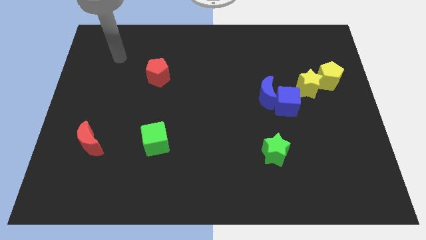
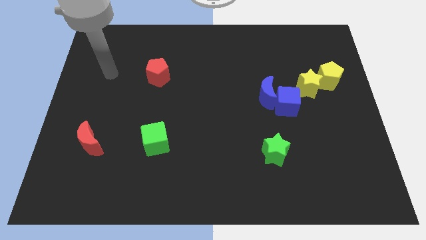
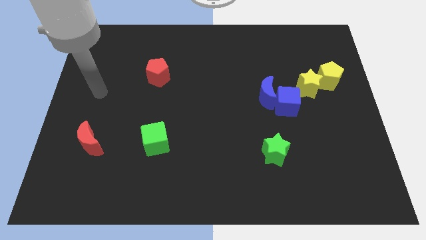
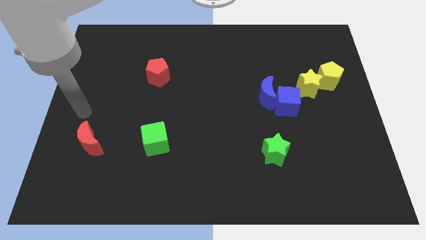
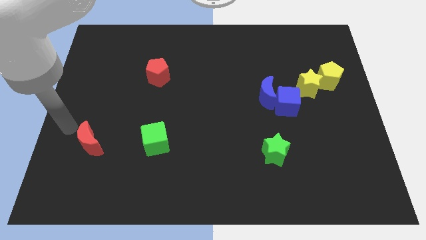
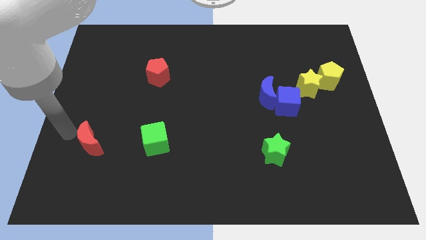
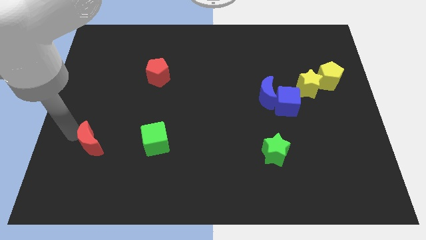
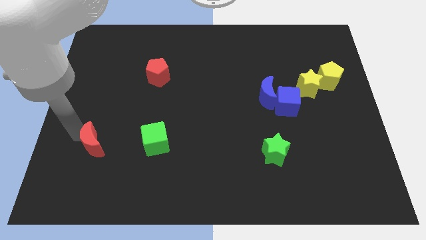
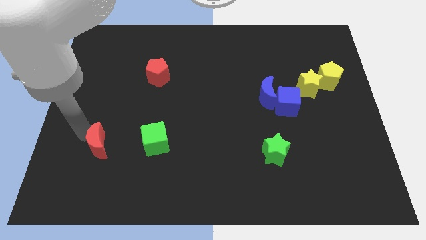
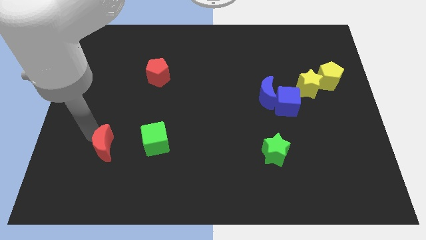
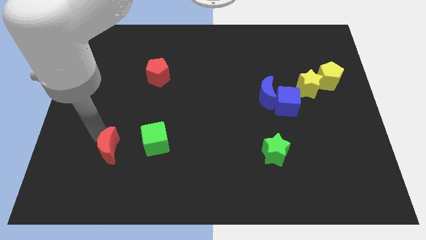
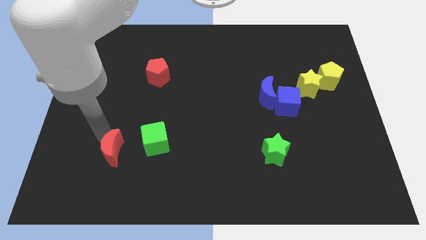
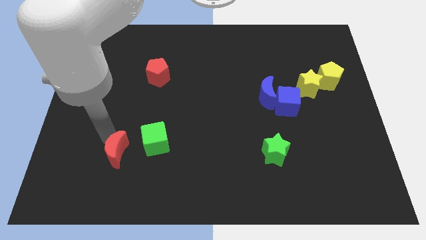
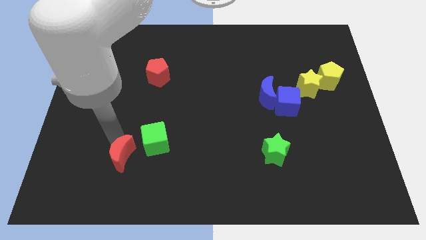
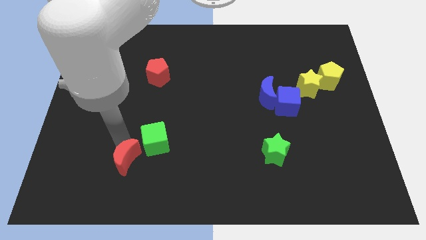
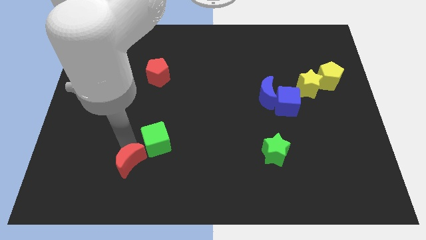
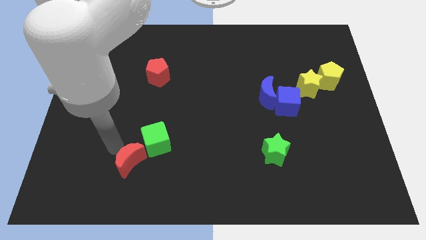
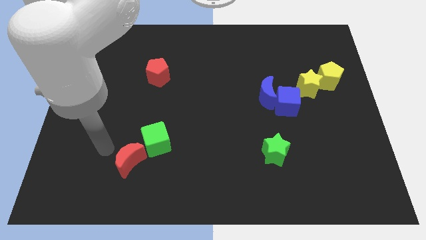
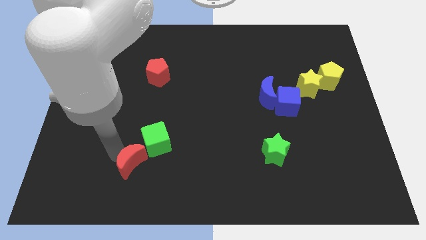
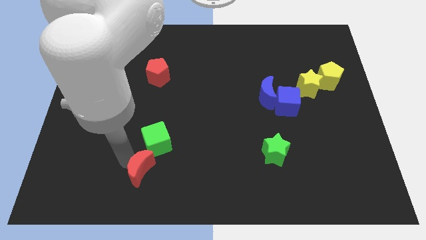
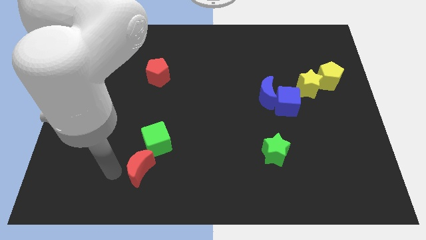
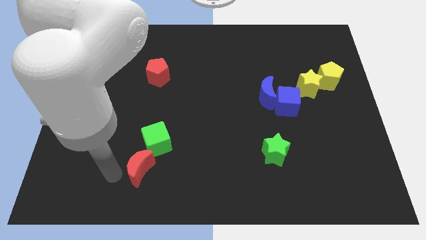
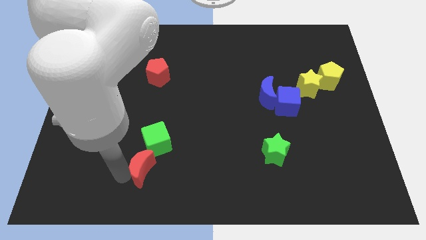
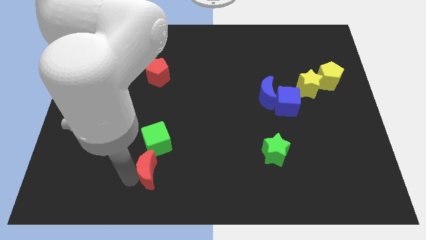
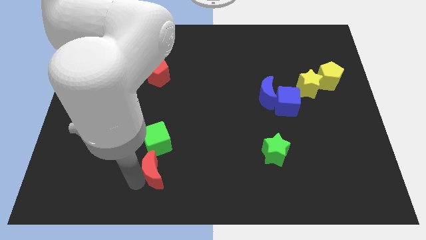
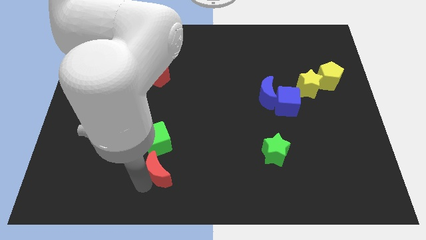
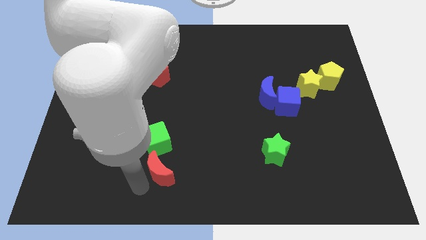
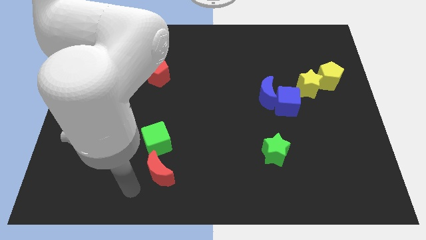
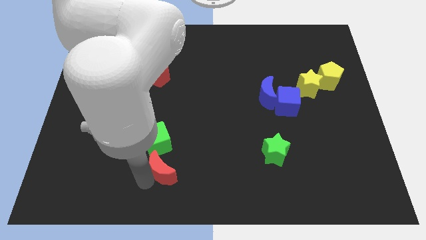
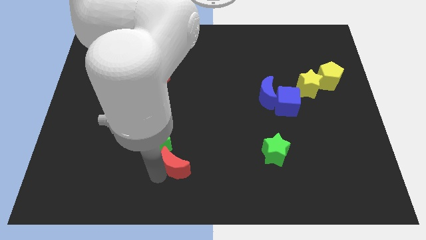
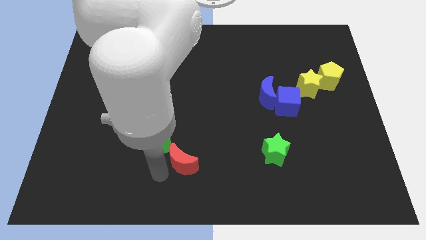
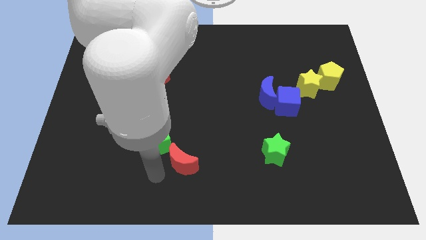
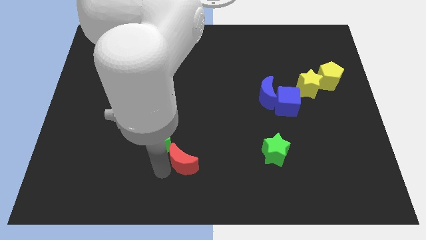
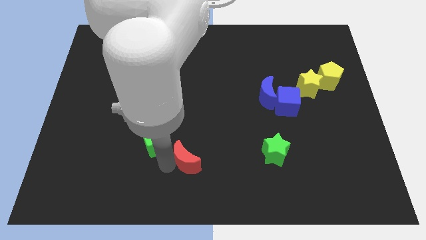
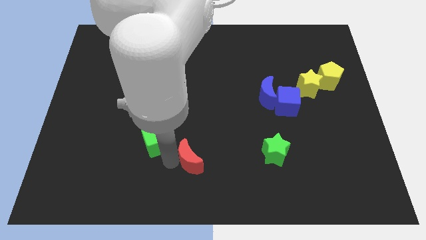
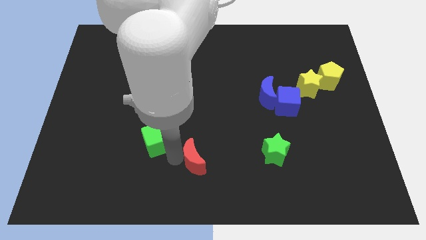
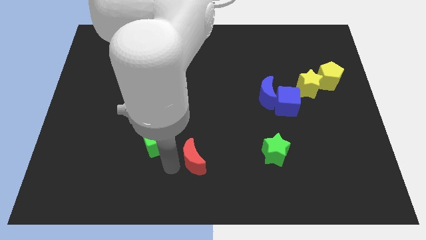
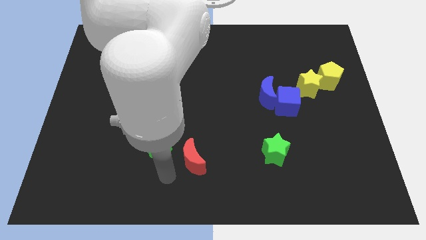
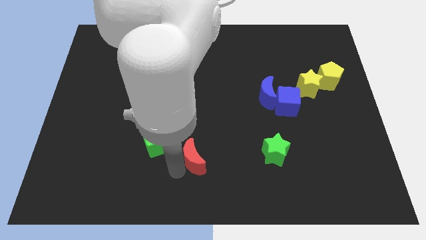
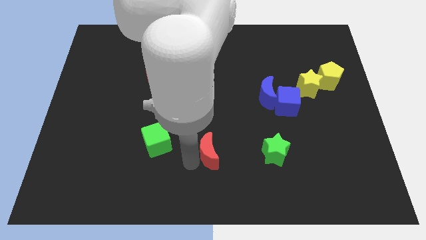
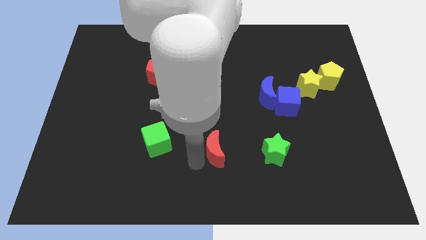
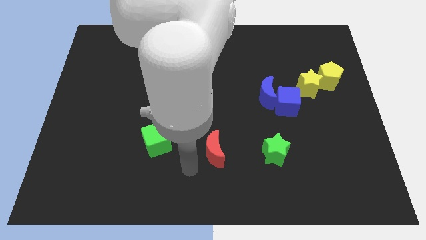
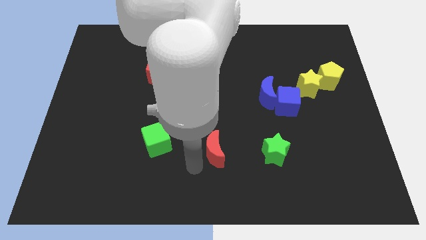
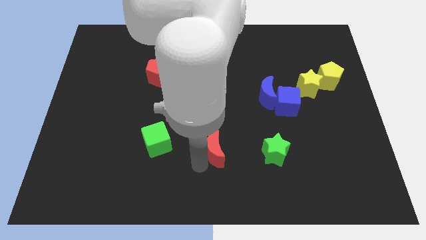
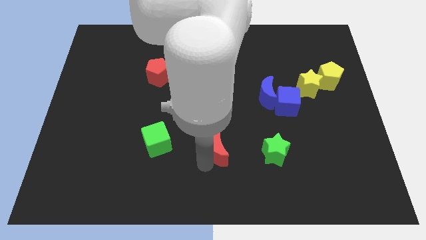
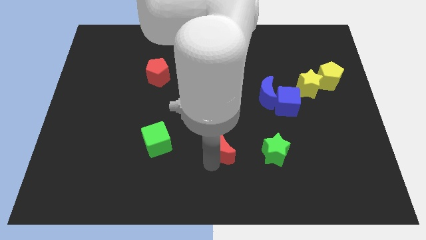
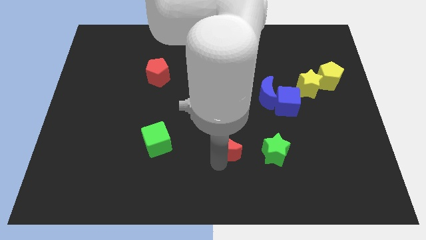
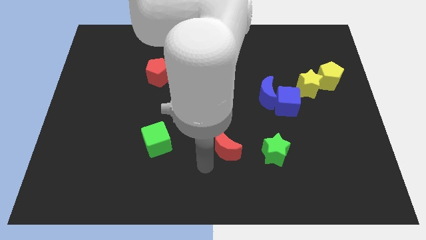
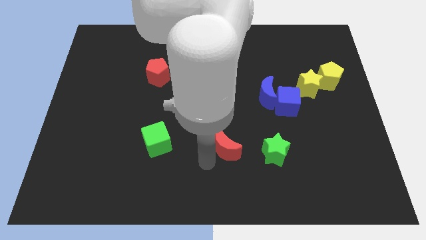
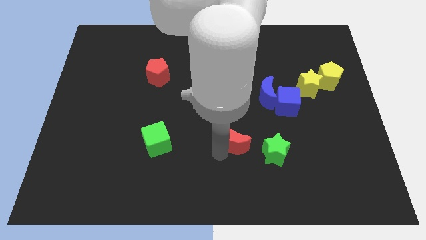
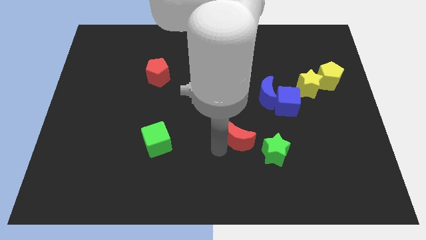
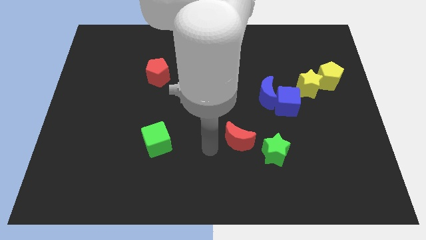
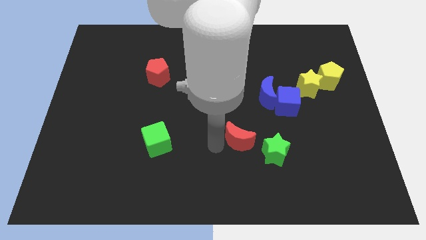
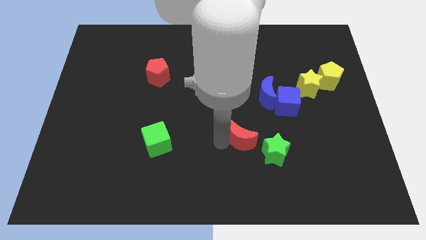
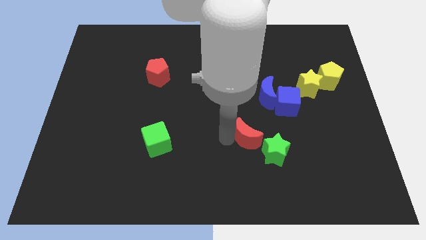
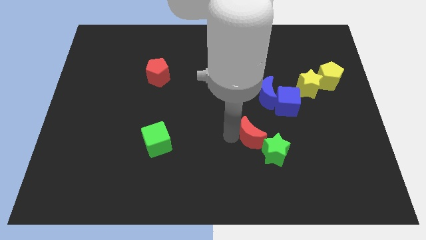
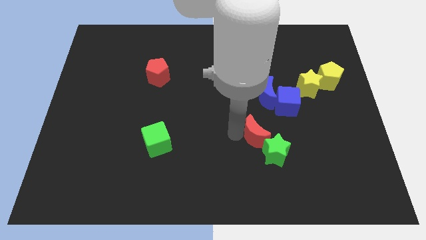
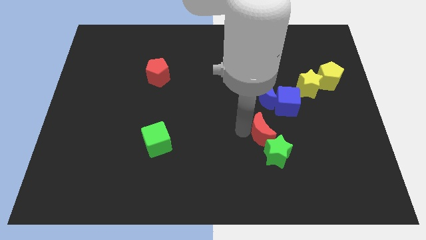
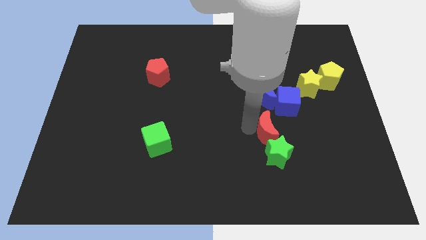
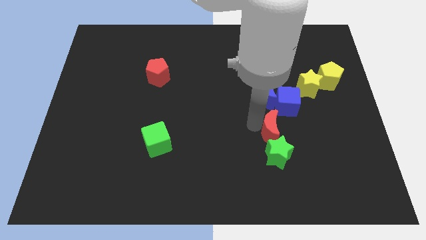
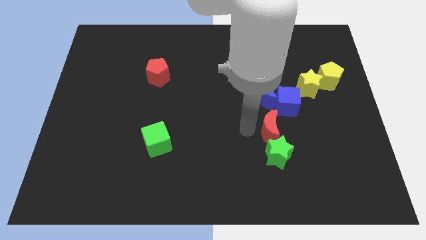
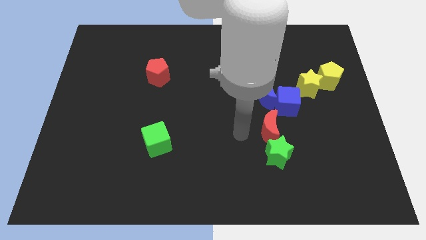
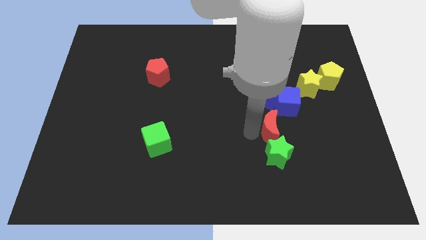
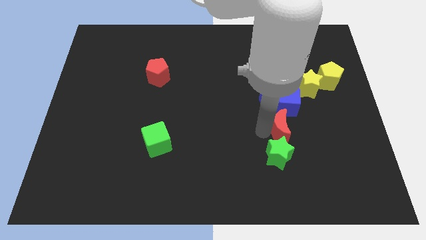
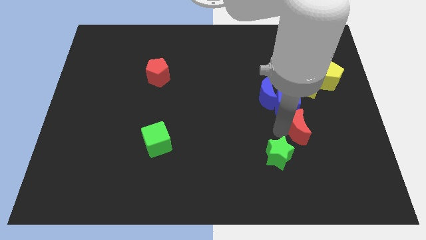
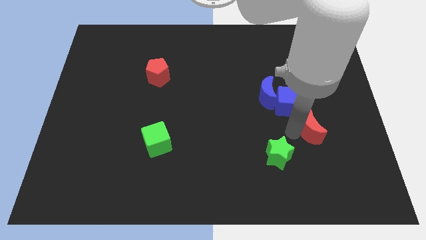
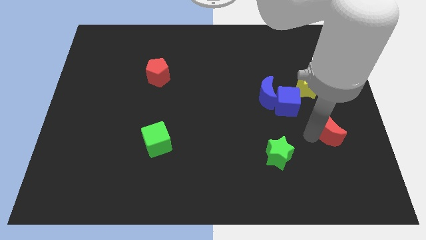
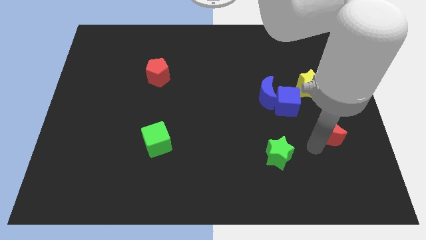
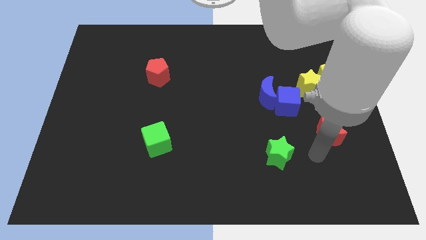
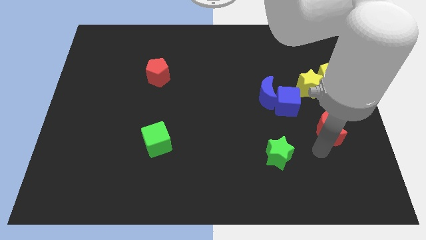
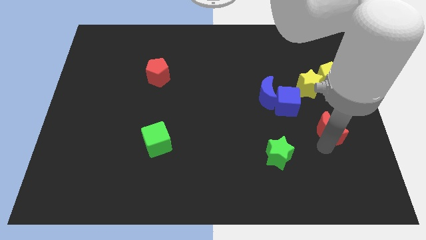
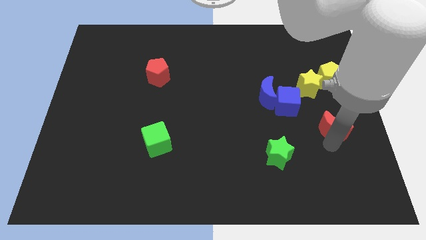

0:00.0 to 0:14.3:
push the red moon to the bottom of the yellow pentagon
